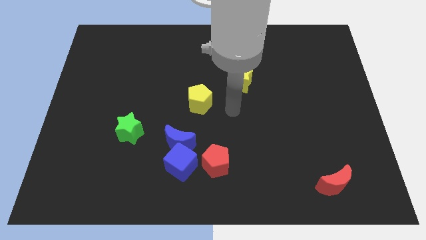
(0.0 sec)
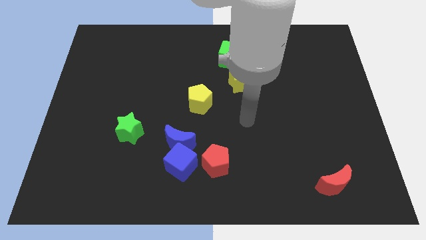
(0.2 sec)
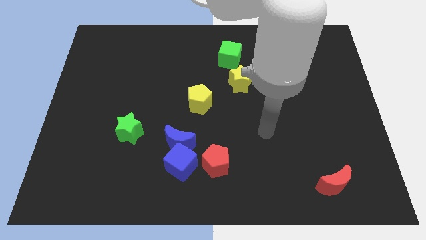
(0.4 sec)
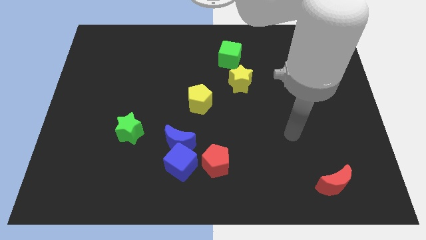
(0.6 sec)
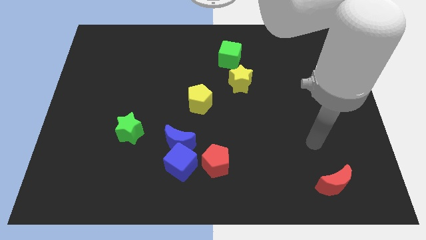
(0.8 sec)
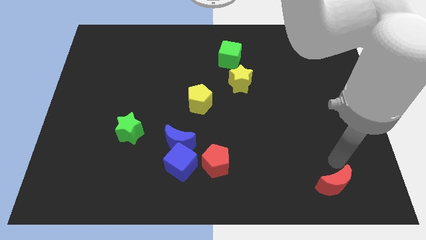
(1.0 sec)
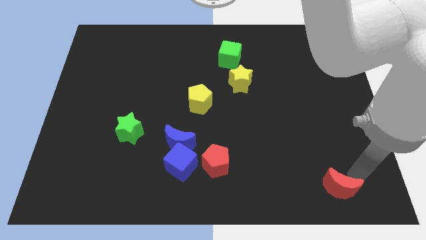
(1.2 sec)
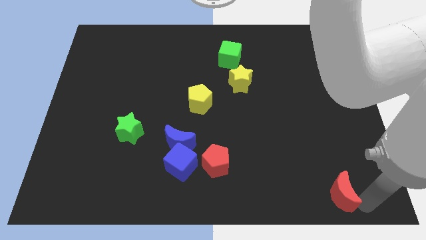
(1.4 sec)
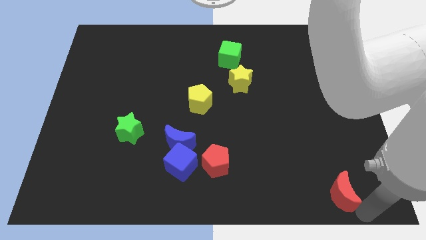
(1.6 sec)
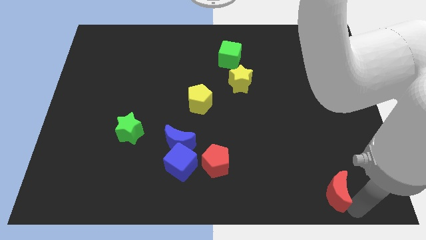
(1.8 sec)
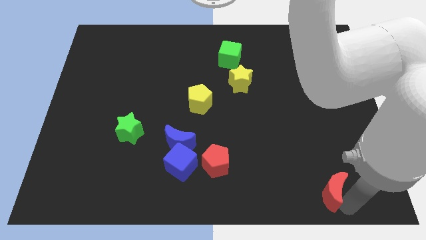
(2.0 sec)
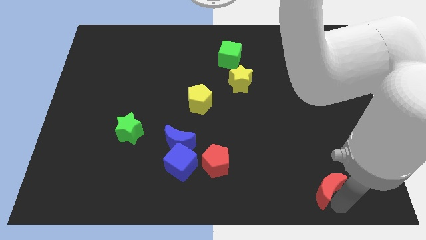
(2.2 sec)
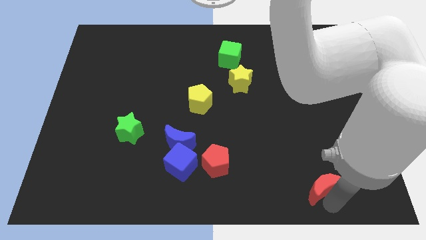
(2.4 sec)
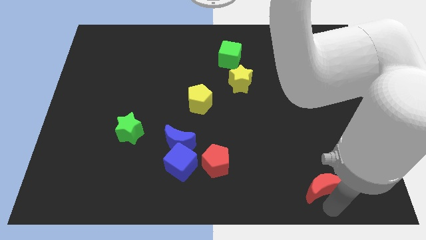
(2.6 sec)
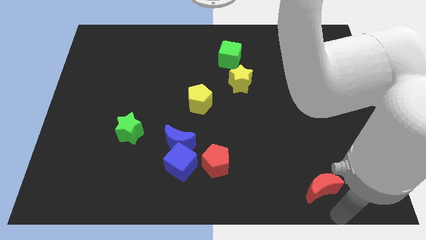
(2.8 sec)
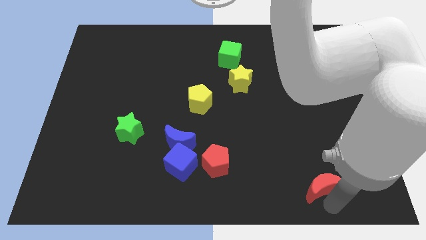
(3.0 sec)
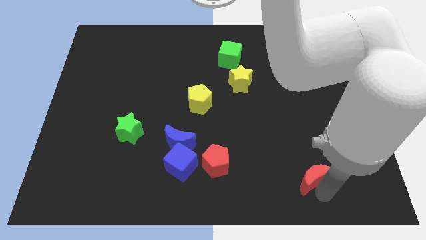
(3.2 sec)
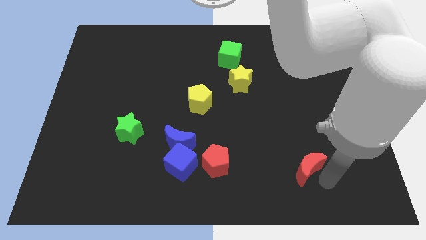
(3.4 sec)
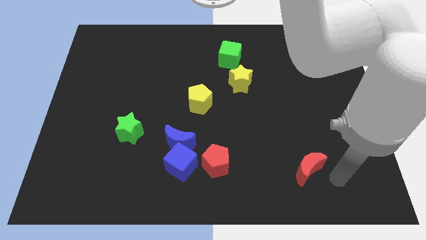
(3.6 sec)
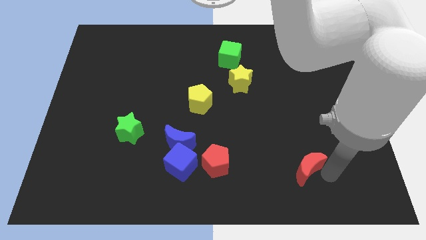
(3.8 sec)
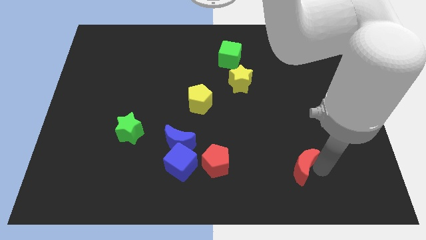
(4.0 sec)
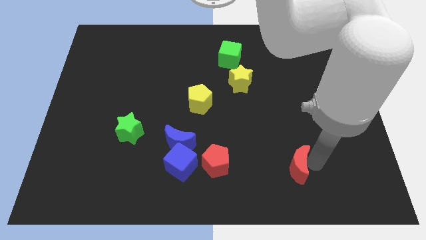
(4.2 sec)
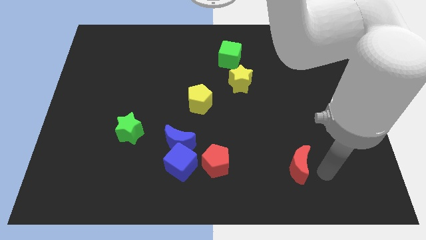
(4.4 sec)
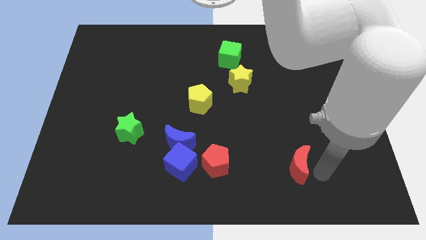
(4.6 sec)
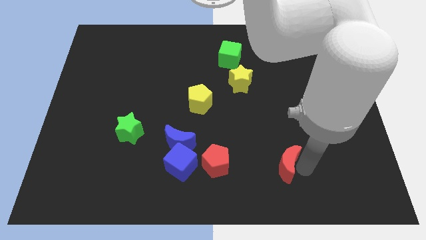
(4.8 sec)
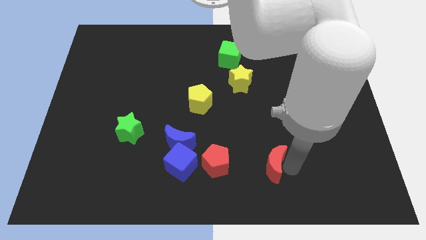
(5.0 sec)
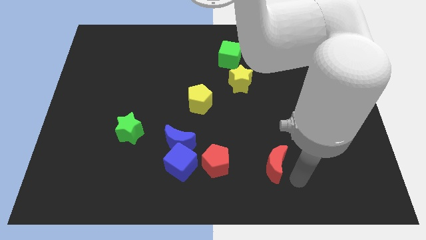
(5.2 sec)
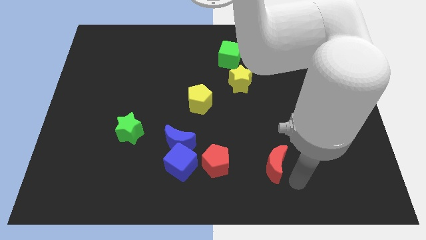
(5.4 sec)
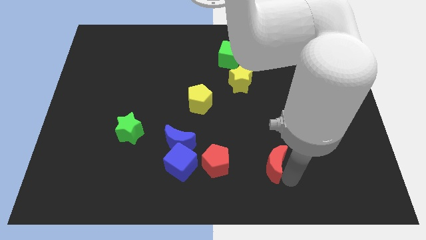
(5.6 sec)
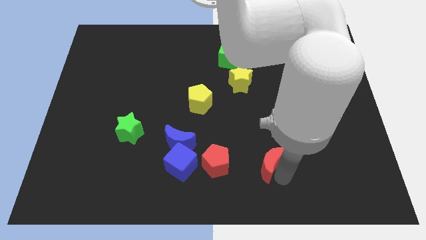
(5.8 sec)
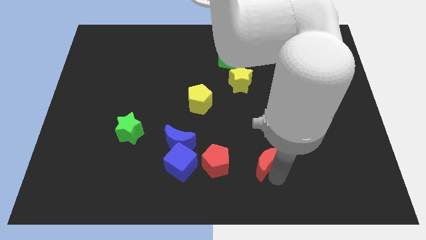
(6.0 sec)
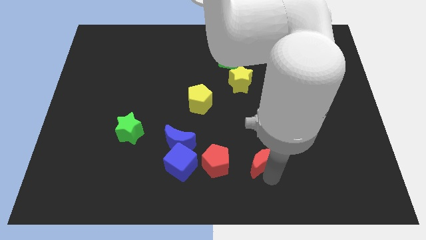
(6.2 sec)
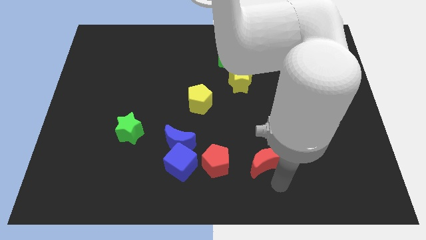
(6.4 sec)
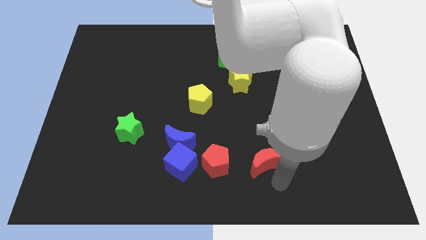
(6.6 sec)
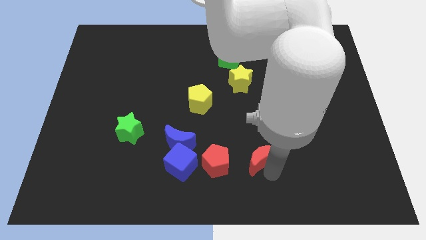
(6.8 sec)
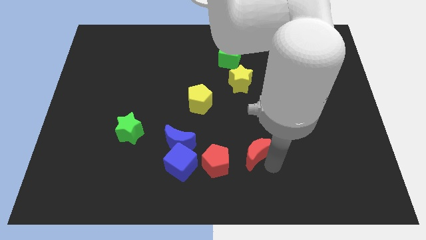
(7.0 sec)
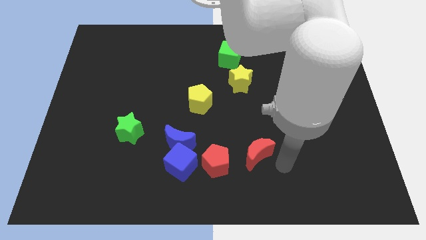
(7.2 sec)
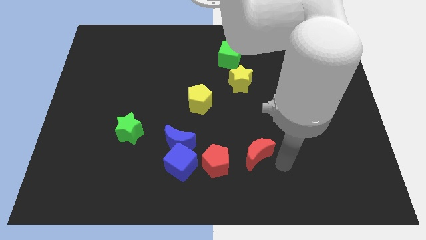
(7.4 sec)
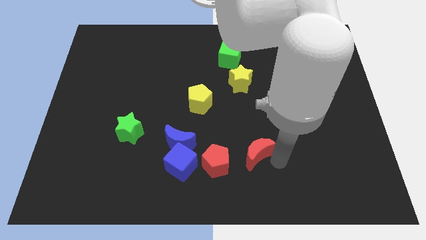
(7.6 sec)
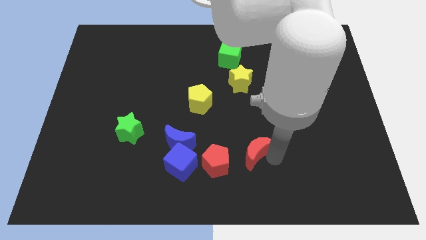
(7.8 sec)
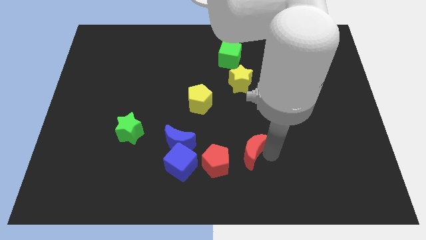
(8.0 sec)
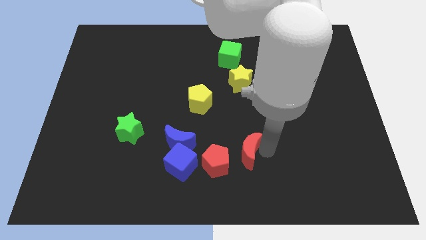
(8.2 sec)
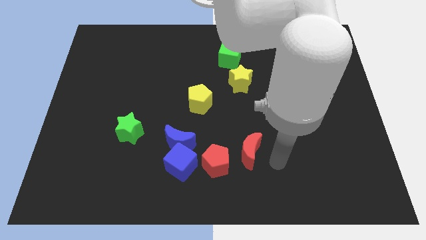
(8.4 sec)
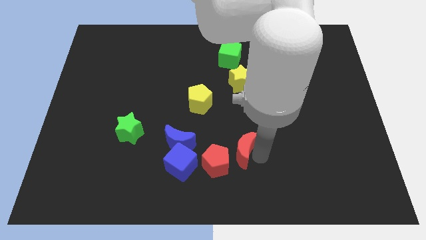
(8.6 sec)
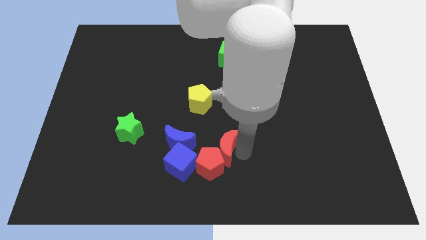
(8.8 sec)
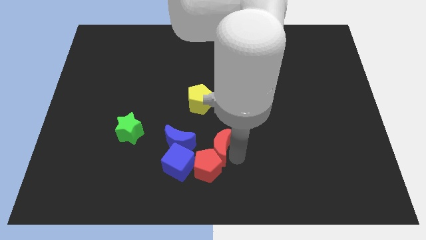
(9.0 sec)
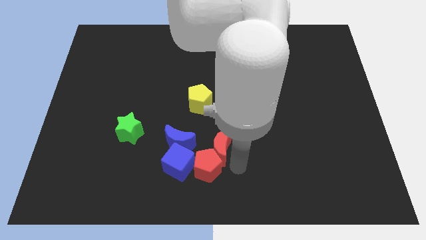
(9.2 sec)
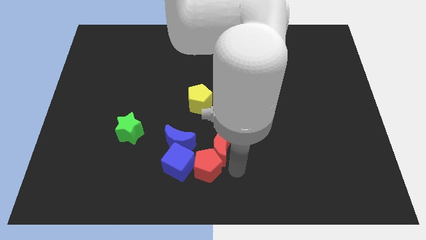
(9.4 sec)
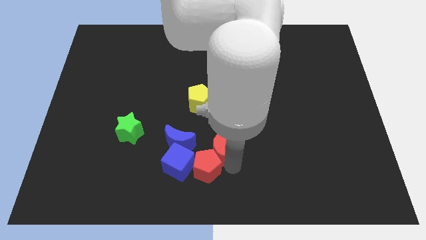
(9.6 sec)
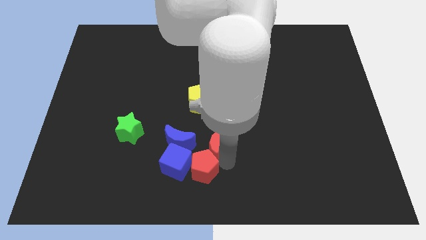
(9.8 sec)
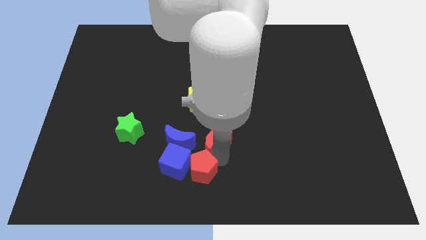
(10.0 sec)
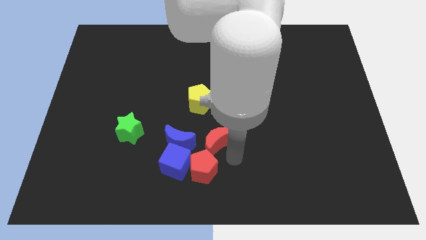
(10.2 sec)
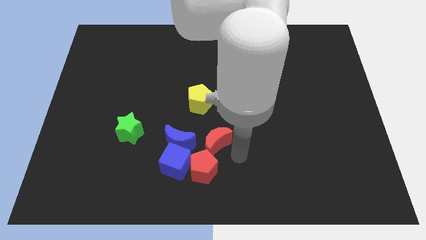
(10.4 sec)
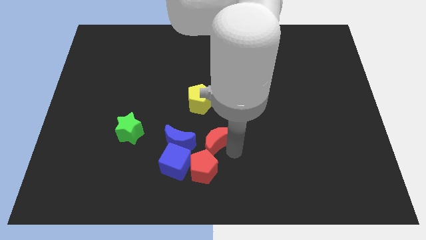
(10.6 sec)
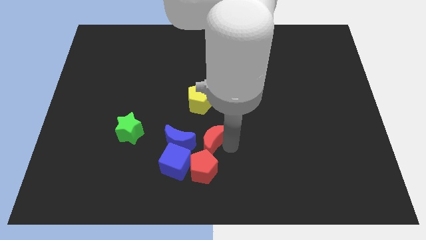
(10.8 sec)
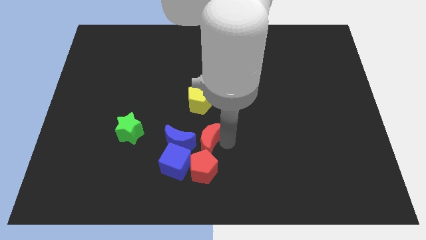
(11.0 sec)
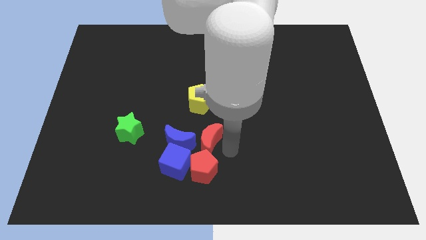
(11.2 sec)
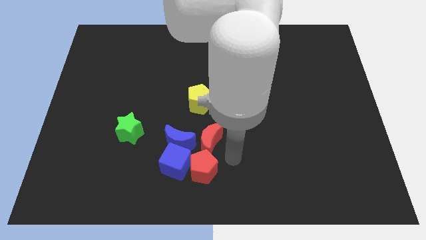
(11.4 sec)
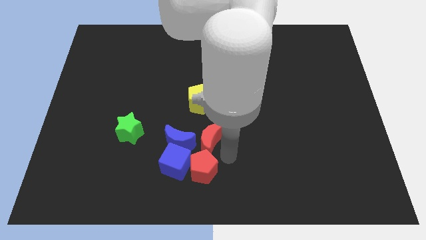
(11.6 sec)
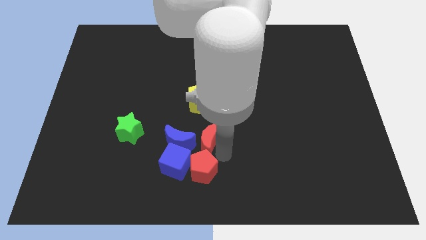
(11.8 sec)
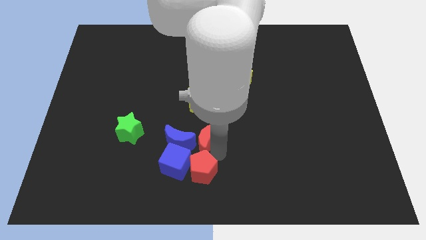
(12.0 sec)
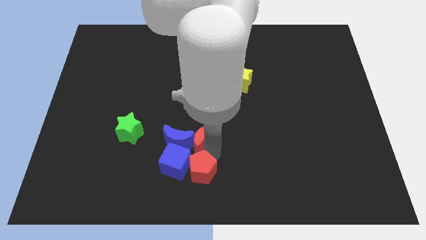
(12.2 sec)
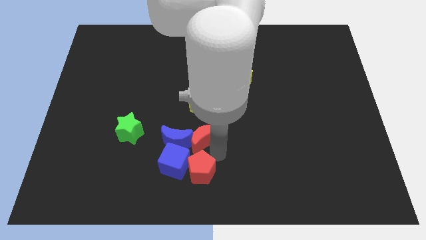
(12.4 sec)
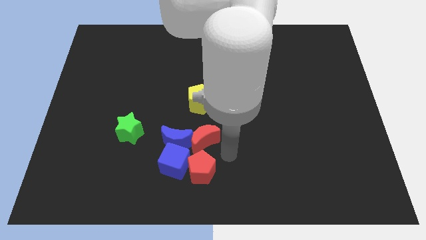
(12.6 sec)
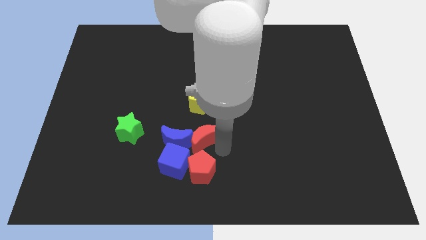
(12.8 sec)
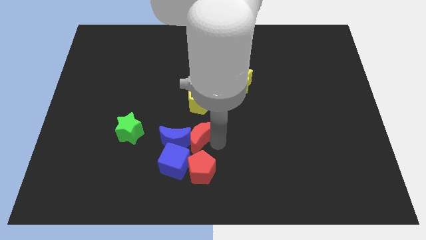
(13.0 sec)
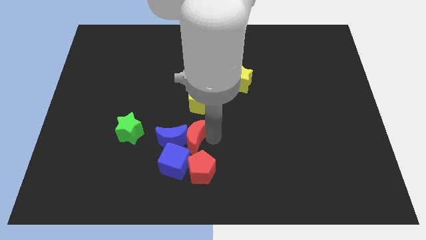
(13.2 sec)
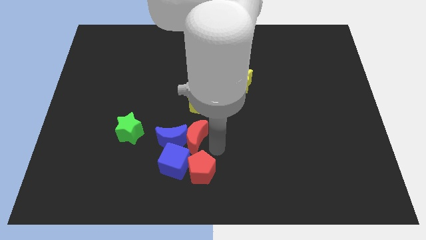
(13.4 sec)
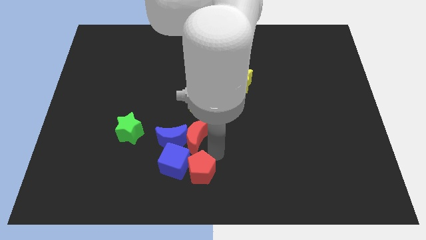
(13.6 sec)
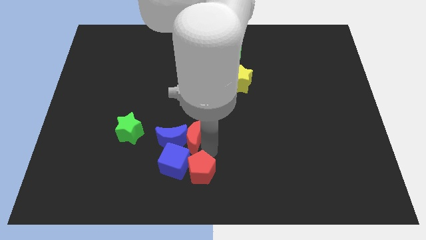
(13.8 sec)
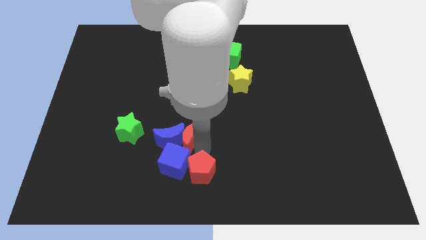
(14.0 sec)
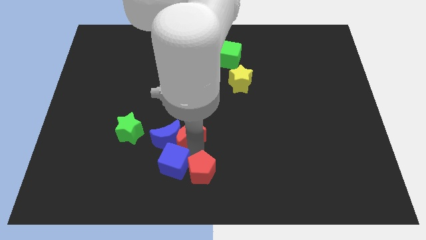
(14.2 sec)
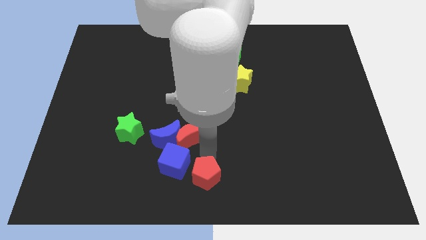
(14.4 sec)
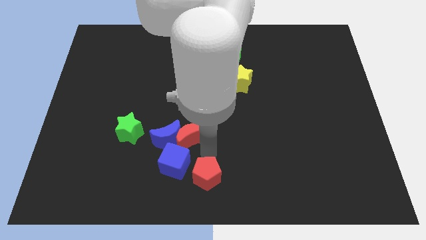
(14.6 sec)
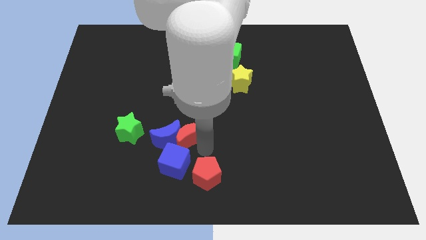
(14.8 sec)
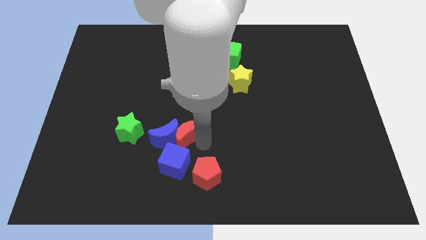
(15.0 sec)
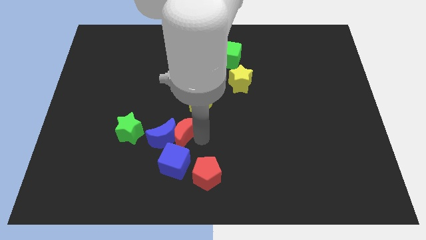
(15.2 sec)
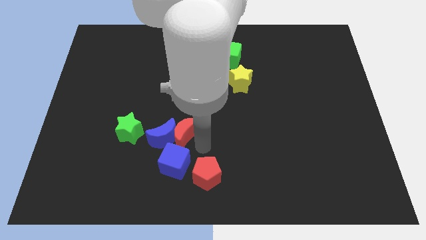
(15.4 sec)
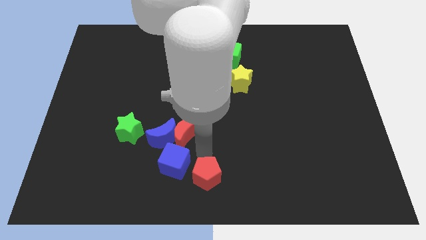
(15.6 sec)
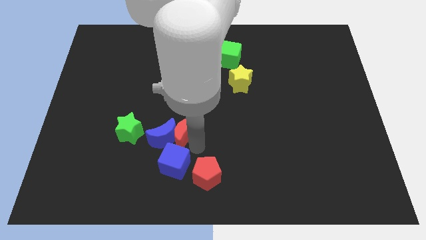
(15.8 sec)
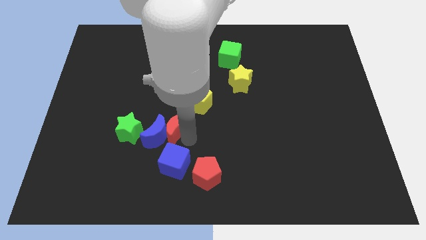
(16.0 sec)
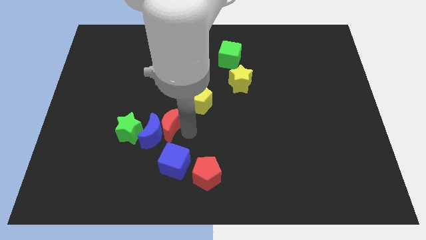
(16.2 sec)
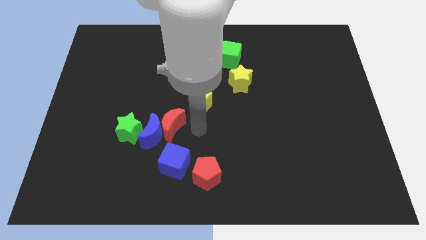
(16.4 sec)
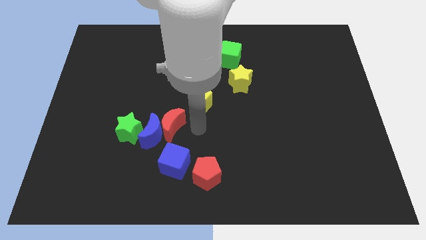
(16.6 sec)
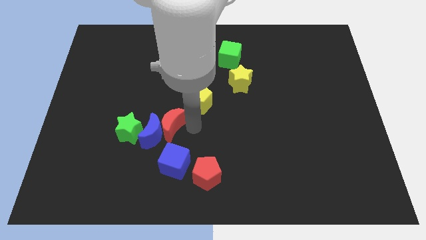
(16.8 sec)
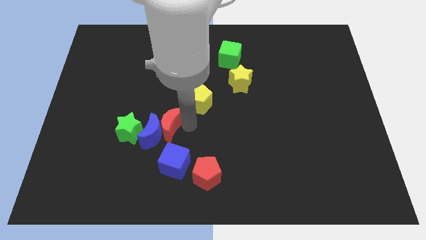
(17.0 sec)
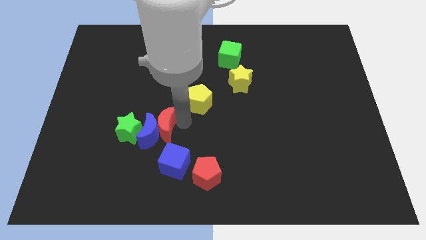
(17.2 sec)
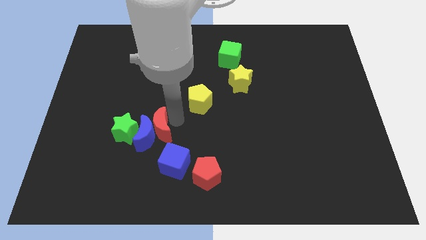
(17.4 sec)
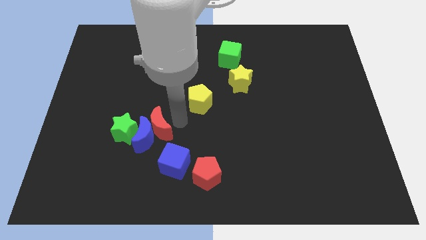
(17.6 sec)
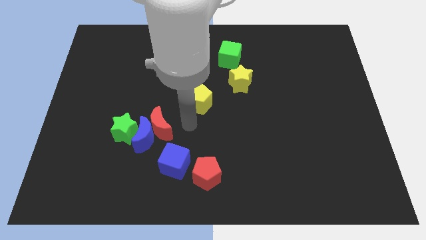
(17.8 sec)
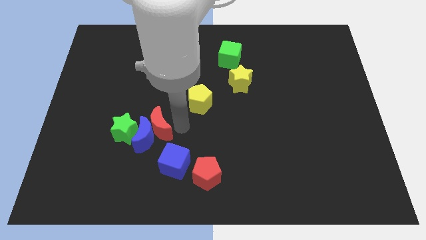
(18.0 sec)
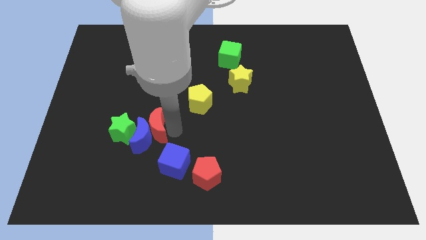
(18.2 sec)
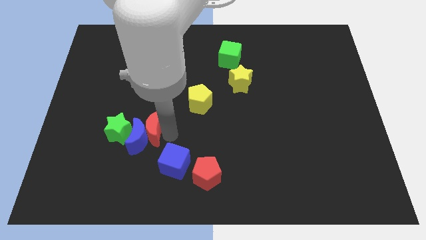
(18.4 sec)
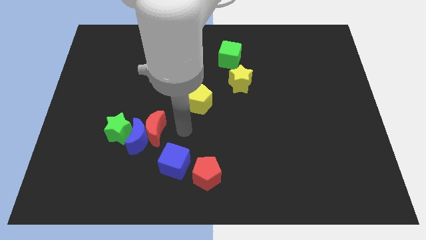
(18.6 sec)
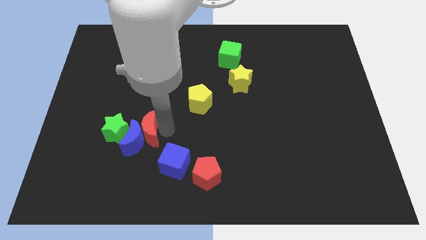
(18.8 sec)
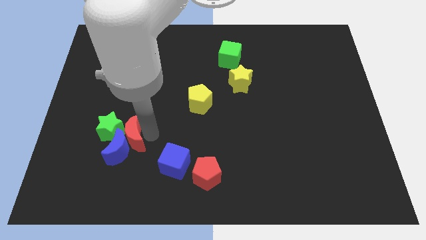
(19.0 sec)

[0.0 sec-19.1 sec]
move the red moon to the green star
